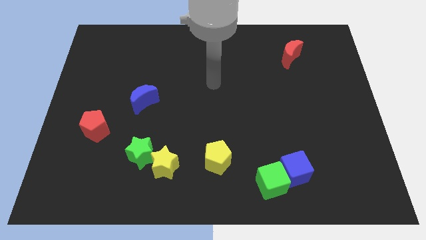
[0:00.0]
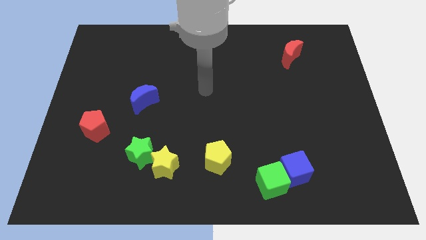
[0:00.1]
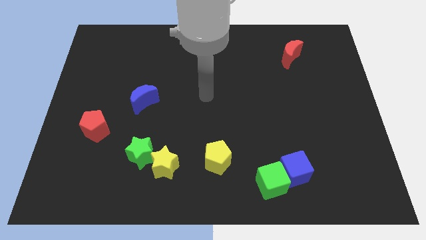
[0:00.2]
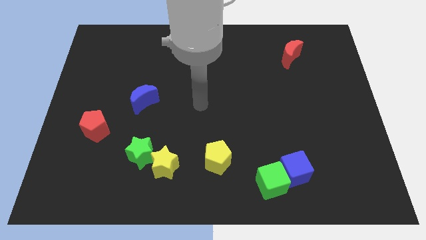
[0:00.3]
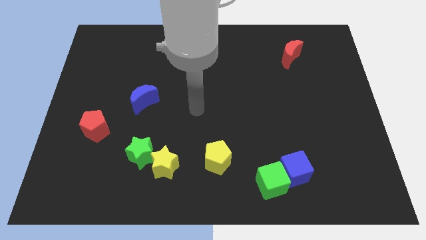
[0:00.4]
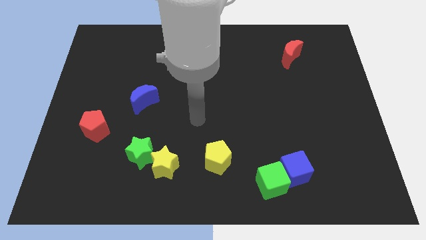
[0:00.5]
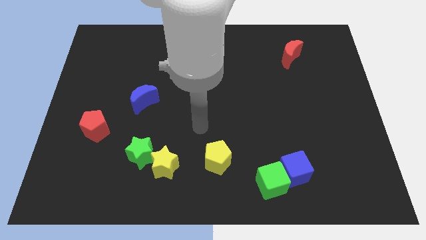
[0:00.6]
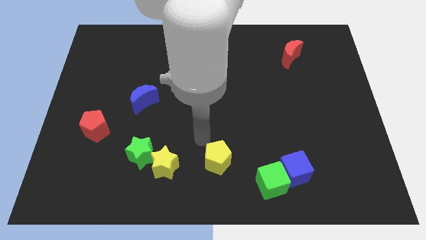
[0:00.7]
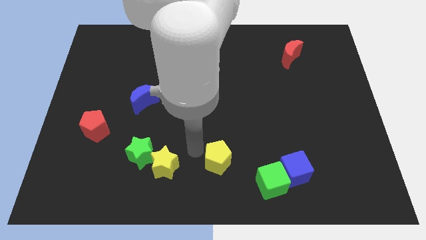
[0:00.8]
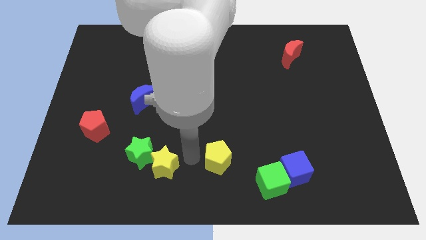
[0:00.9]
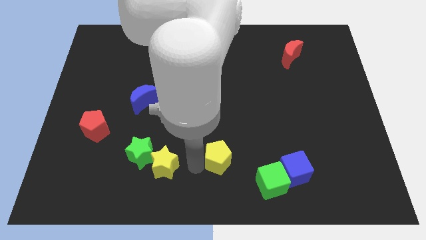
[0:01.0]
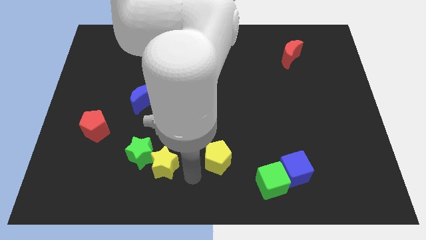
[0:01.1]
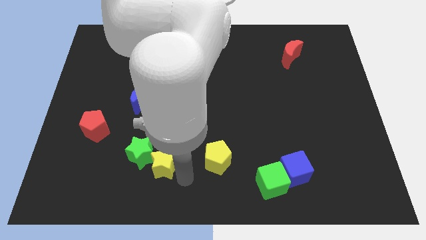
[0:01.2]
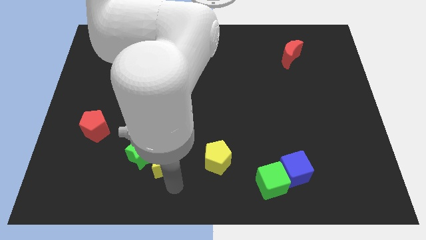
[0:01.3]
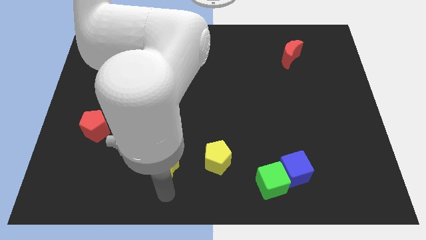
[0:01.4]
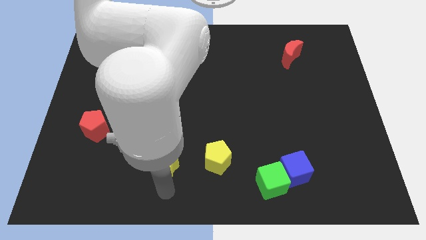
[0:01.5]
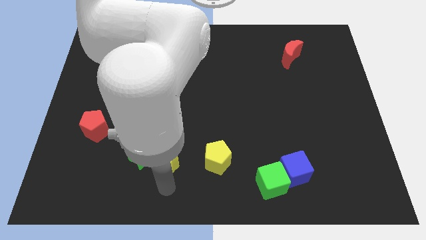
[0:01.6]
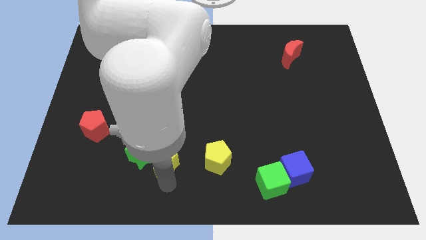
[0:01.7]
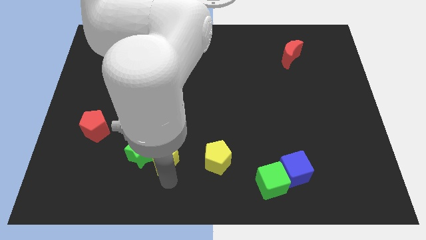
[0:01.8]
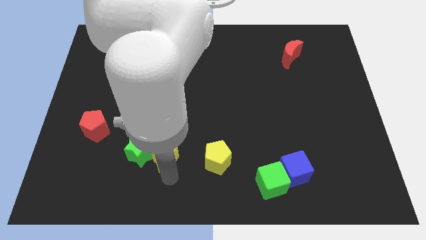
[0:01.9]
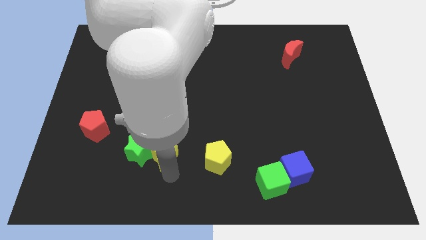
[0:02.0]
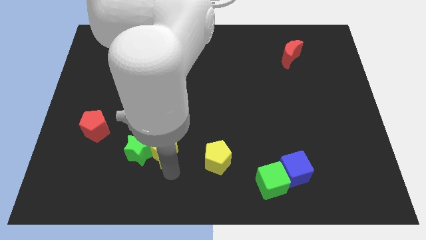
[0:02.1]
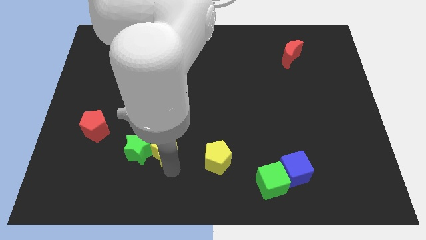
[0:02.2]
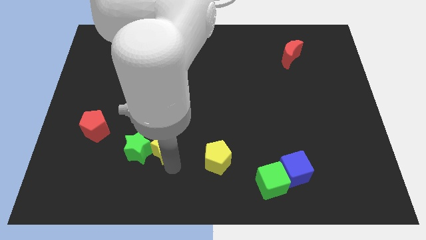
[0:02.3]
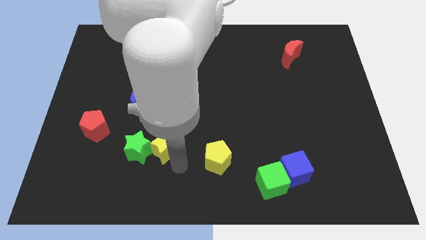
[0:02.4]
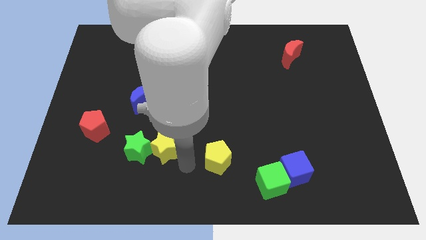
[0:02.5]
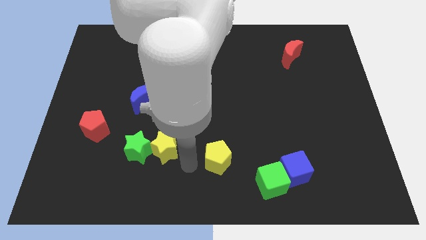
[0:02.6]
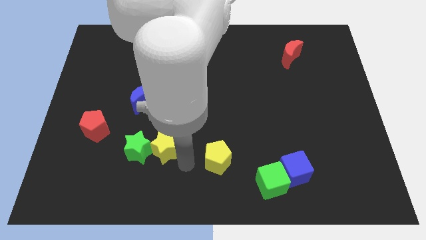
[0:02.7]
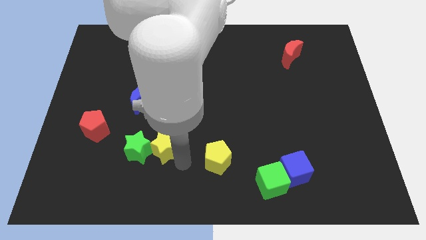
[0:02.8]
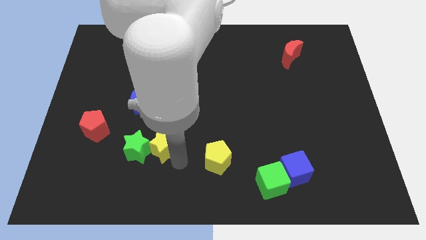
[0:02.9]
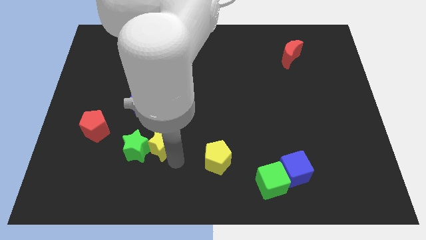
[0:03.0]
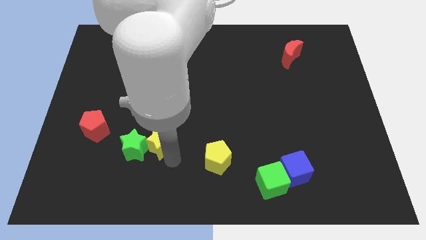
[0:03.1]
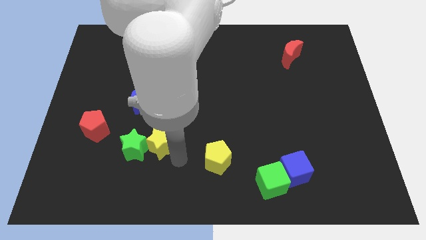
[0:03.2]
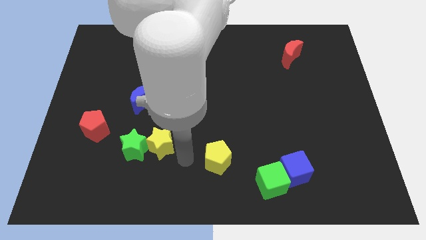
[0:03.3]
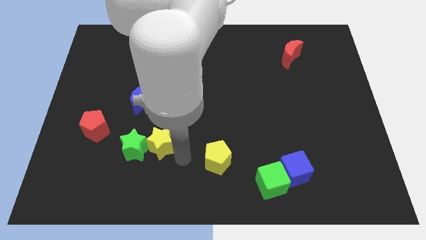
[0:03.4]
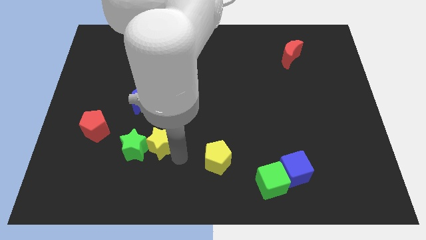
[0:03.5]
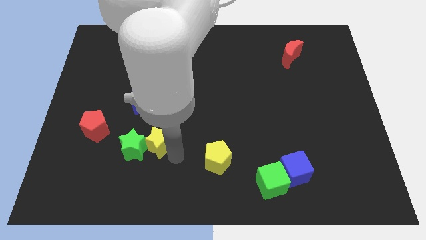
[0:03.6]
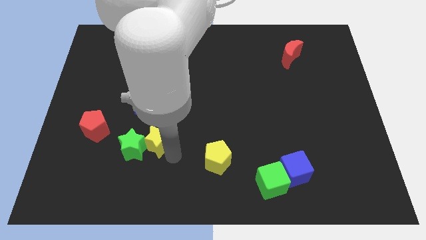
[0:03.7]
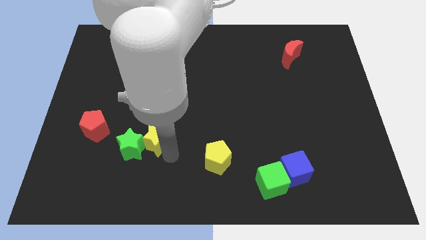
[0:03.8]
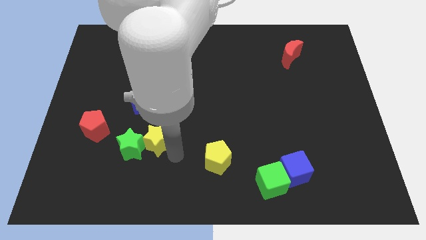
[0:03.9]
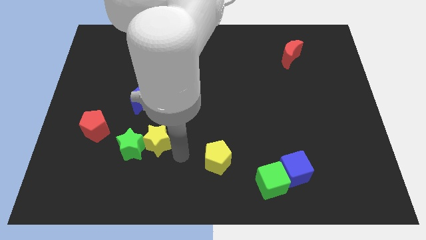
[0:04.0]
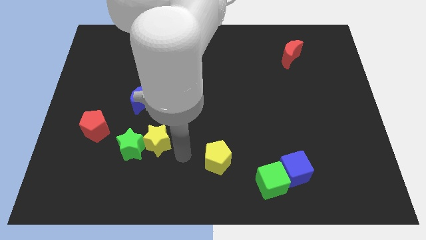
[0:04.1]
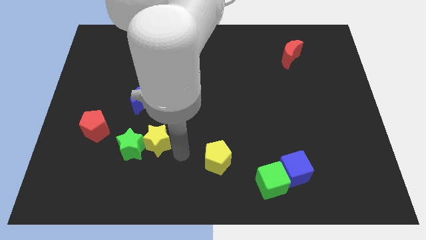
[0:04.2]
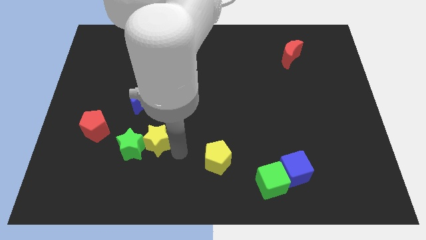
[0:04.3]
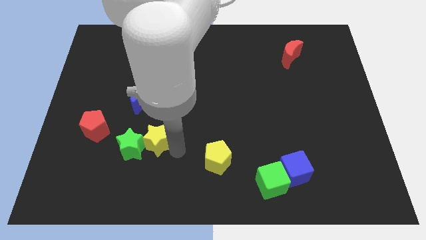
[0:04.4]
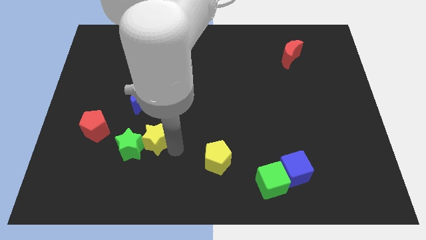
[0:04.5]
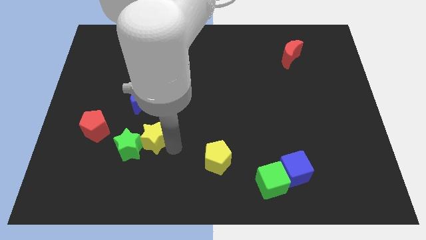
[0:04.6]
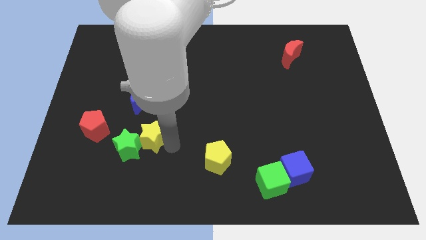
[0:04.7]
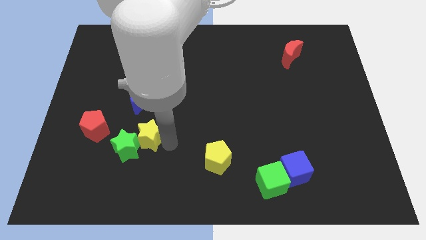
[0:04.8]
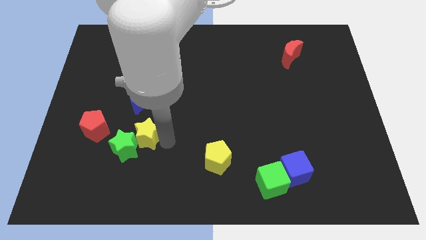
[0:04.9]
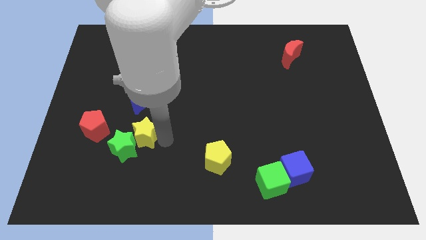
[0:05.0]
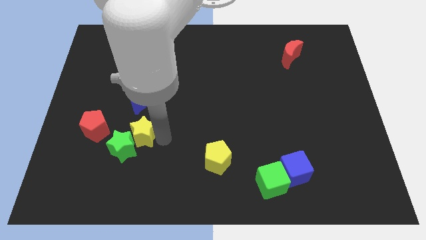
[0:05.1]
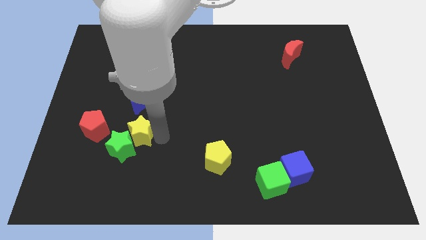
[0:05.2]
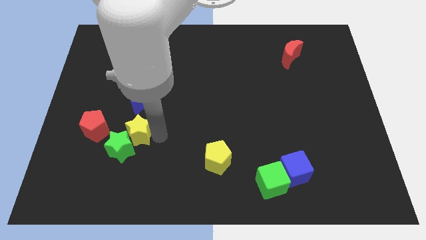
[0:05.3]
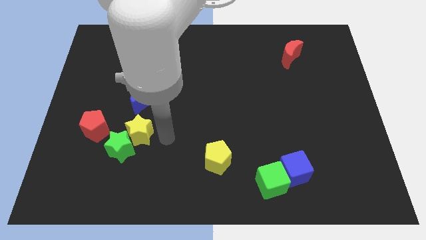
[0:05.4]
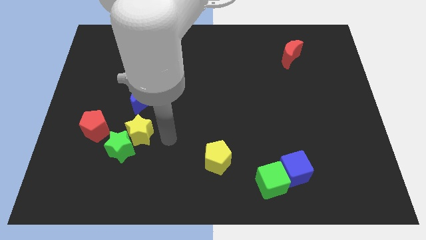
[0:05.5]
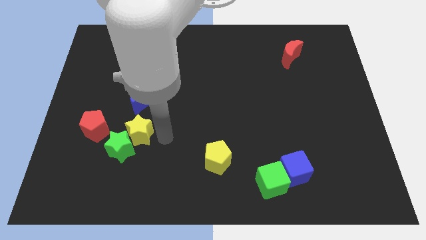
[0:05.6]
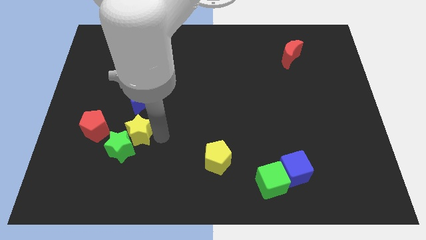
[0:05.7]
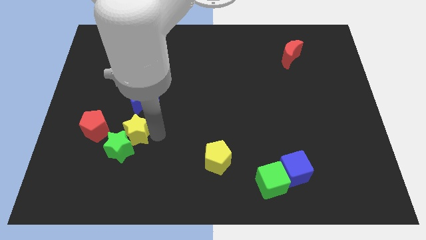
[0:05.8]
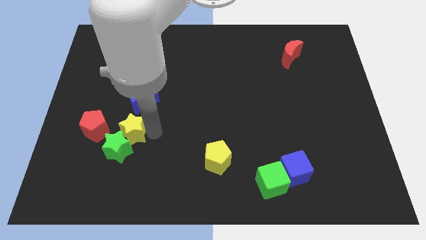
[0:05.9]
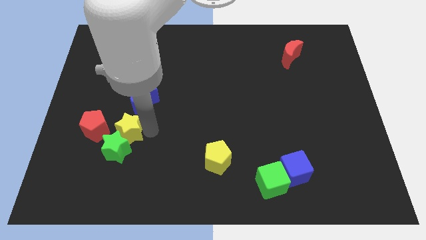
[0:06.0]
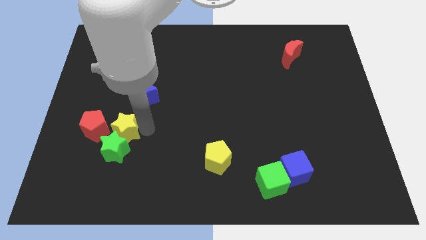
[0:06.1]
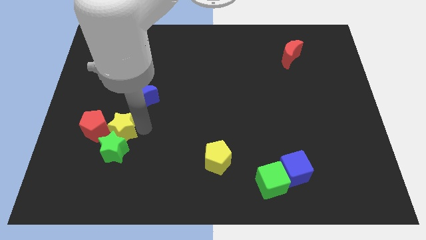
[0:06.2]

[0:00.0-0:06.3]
move the yellow star to the red pentagon
